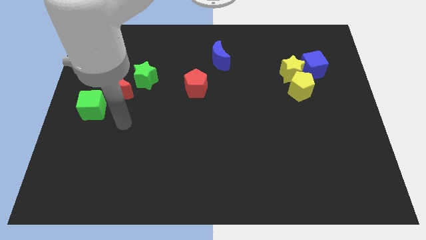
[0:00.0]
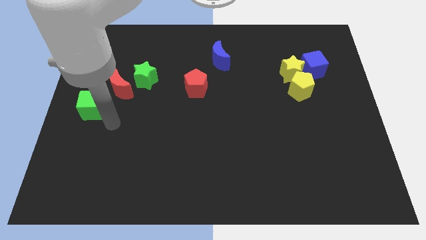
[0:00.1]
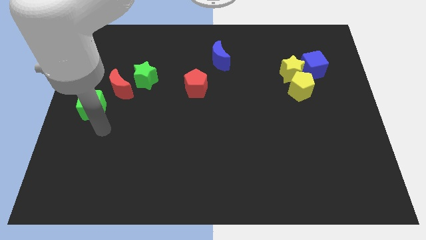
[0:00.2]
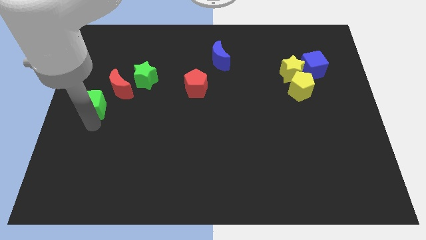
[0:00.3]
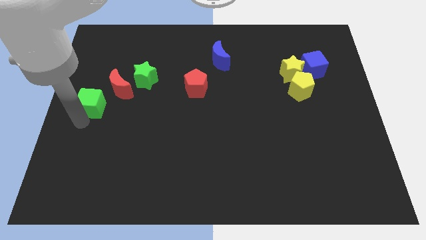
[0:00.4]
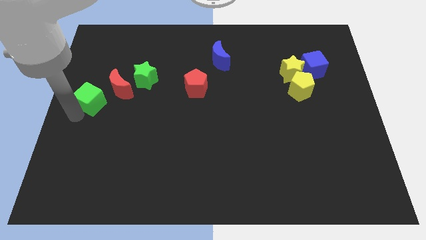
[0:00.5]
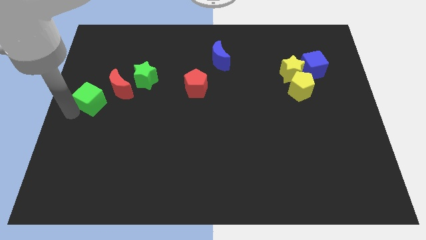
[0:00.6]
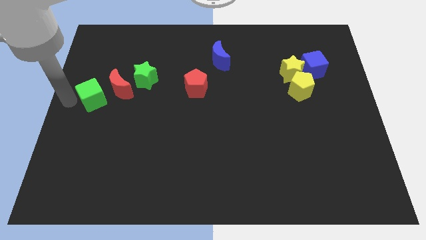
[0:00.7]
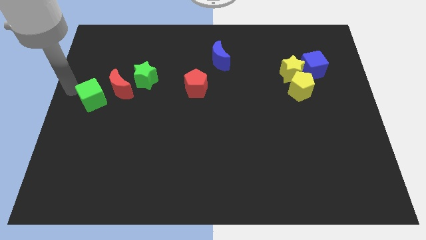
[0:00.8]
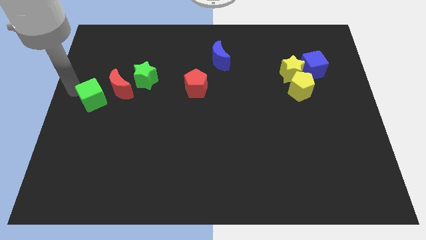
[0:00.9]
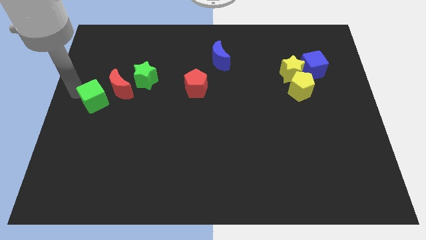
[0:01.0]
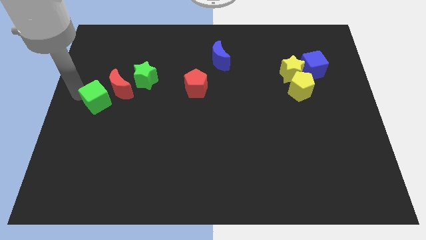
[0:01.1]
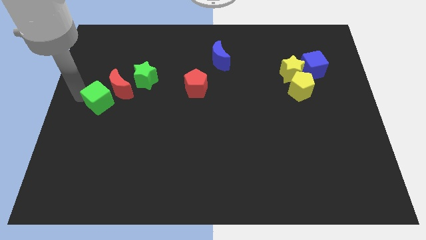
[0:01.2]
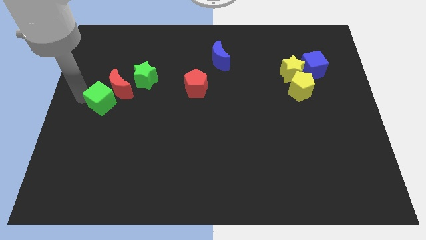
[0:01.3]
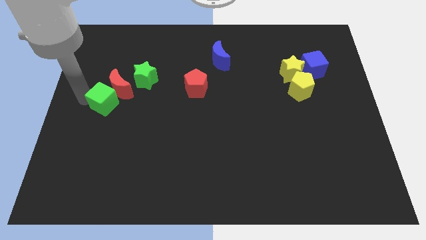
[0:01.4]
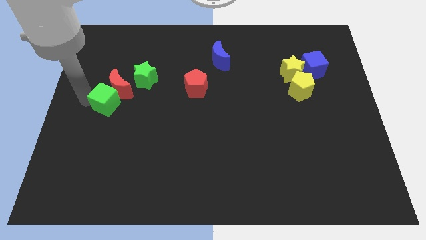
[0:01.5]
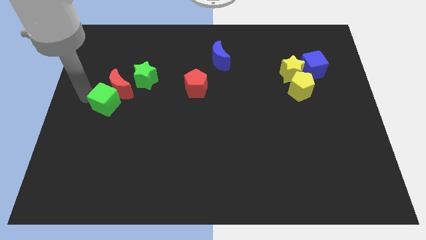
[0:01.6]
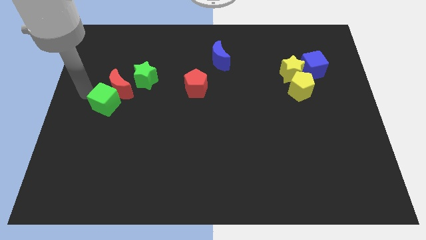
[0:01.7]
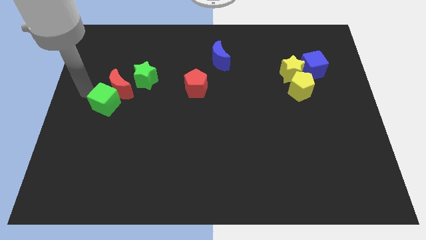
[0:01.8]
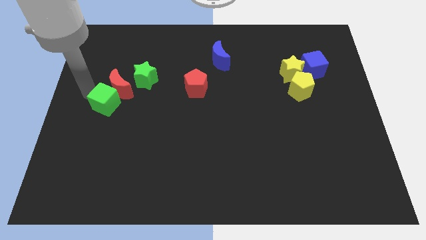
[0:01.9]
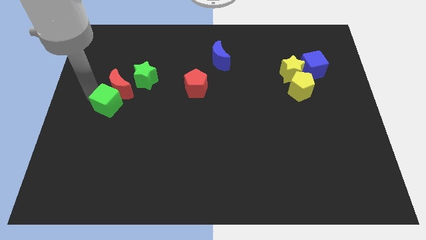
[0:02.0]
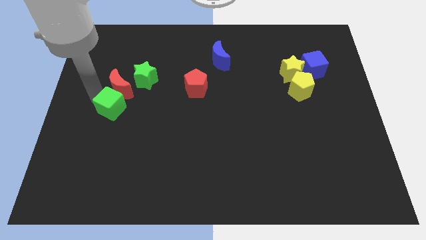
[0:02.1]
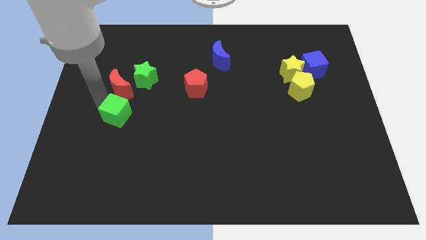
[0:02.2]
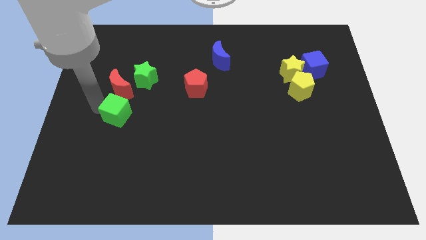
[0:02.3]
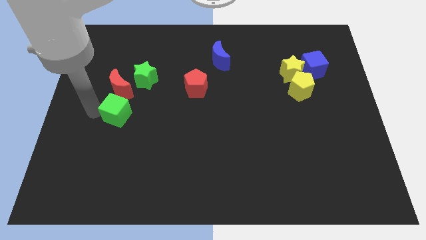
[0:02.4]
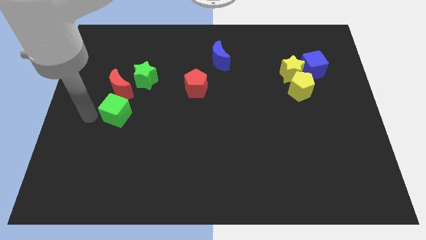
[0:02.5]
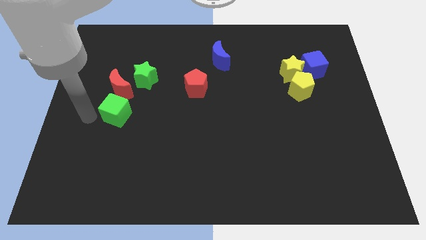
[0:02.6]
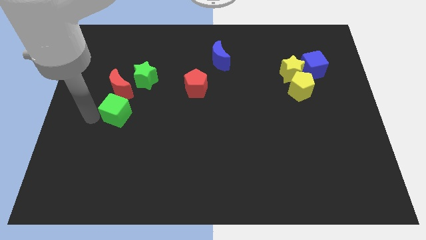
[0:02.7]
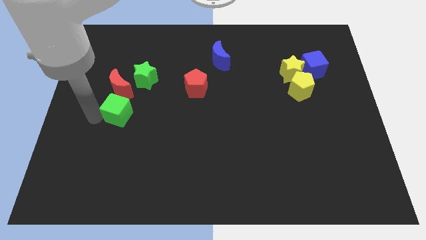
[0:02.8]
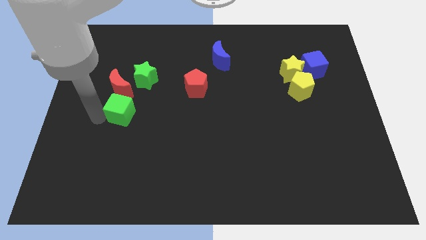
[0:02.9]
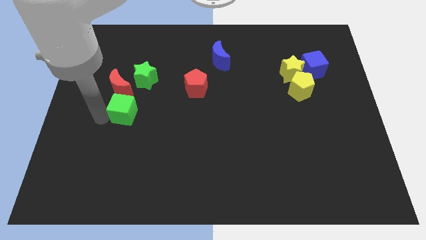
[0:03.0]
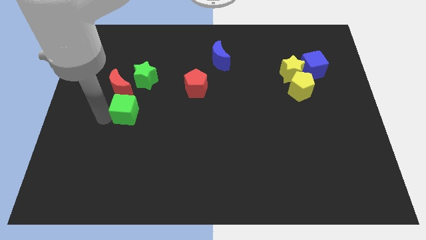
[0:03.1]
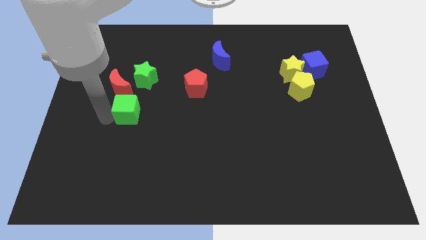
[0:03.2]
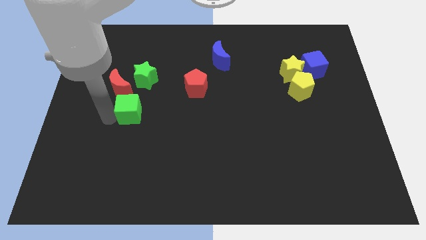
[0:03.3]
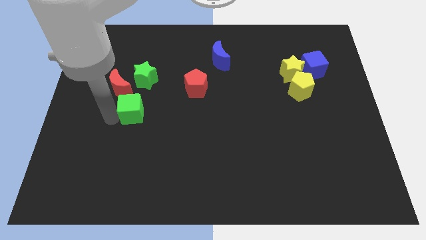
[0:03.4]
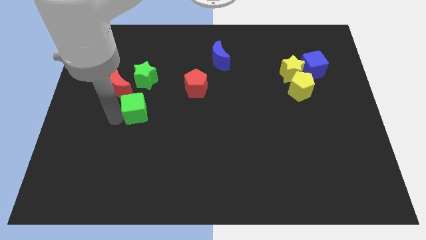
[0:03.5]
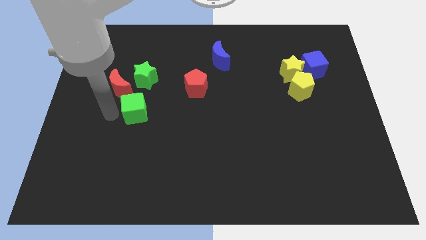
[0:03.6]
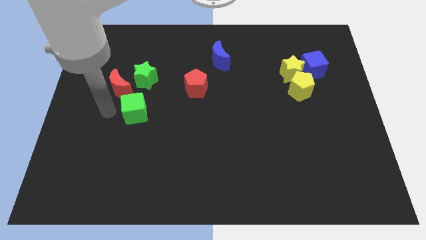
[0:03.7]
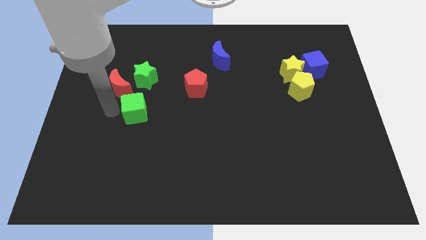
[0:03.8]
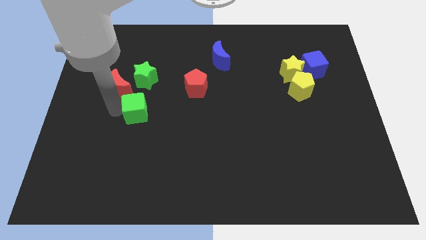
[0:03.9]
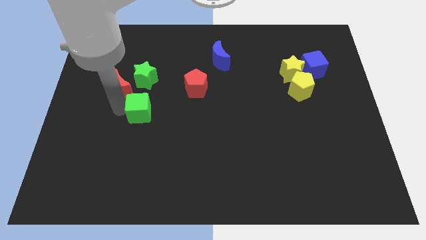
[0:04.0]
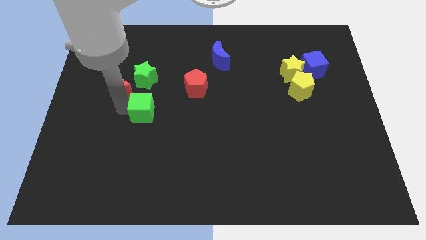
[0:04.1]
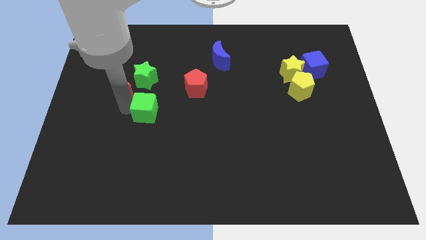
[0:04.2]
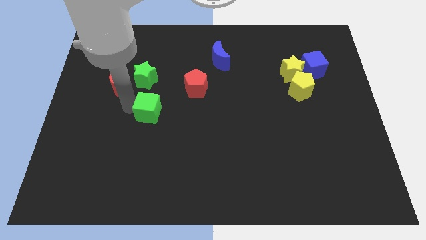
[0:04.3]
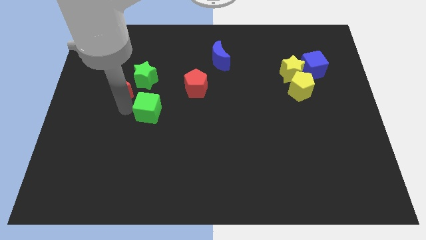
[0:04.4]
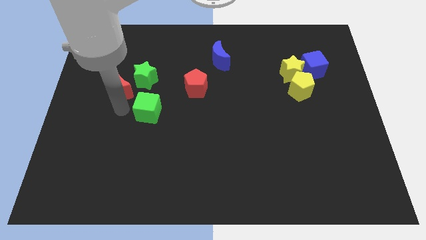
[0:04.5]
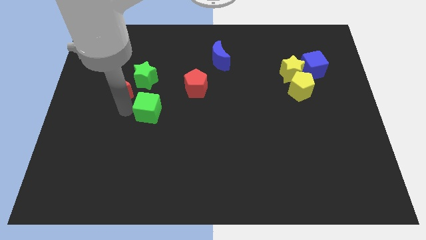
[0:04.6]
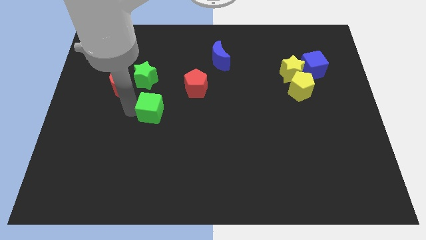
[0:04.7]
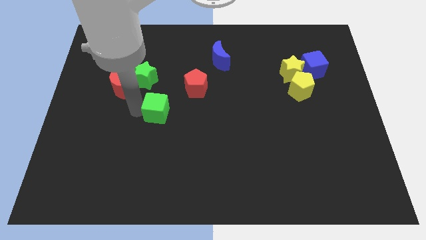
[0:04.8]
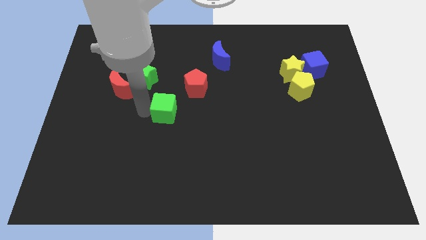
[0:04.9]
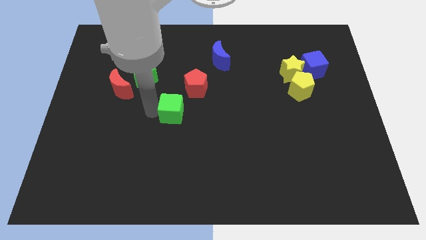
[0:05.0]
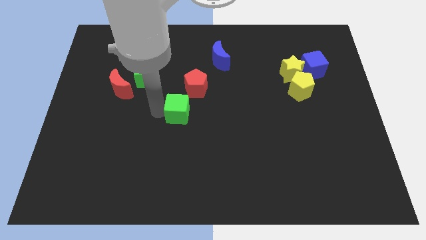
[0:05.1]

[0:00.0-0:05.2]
slide the green cube to the right

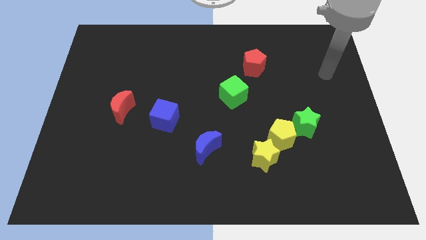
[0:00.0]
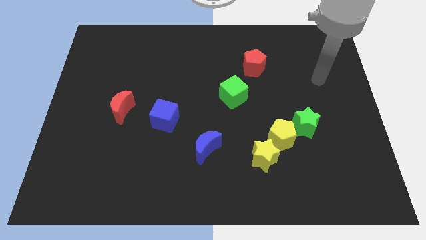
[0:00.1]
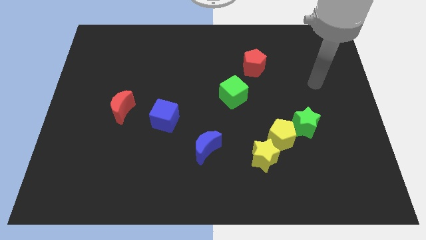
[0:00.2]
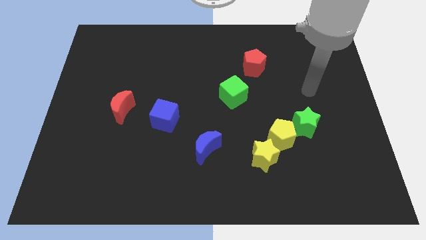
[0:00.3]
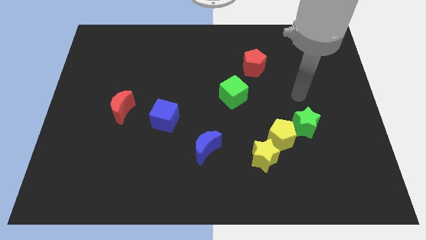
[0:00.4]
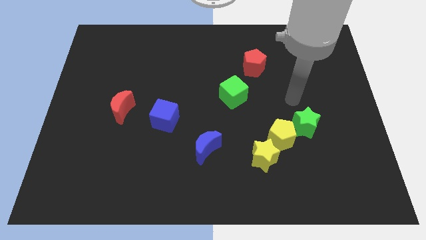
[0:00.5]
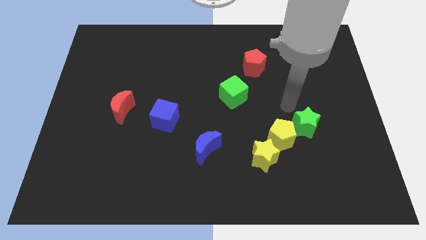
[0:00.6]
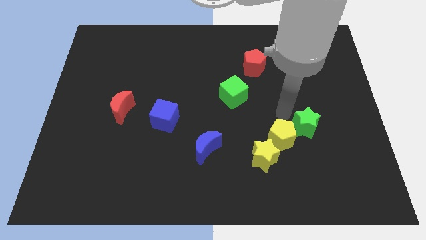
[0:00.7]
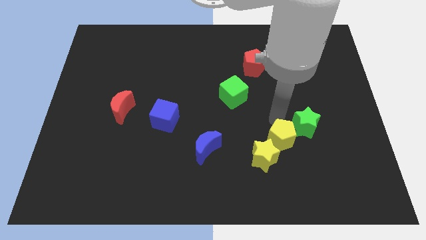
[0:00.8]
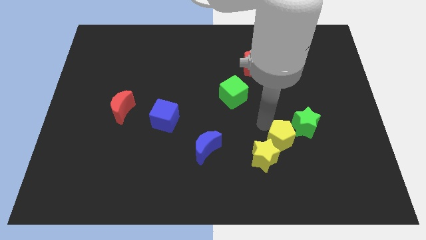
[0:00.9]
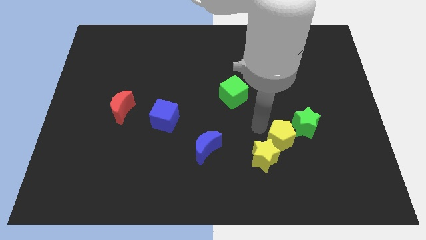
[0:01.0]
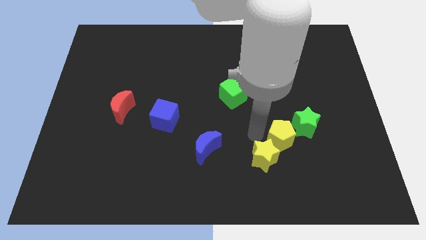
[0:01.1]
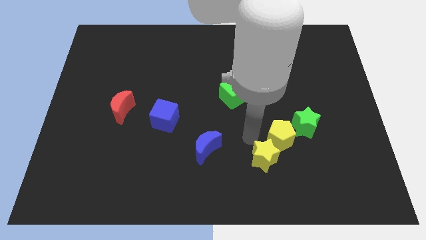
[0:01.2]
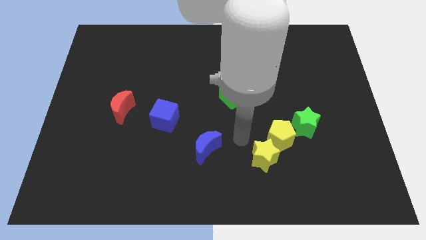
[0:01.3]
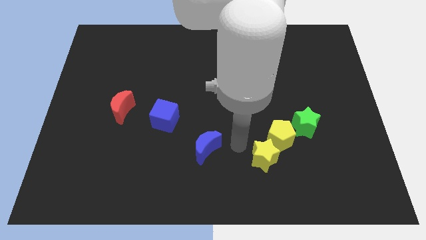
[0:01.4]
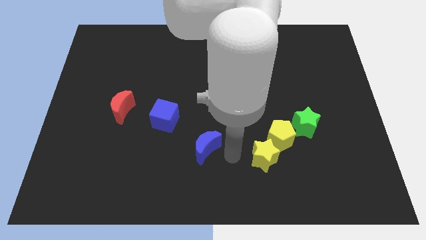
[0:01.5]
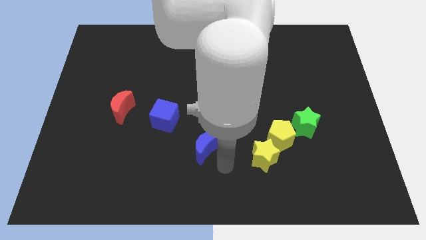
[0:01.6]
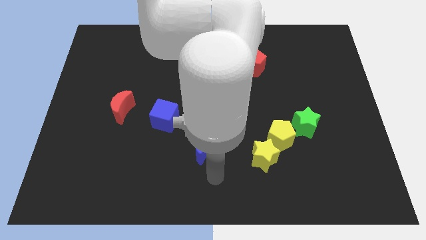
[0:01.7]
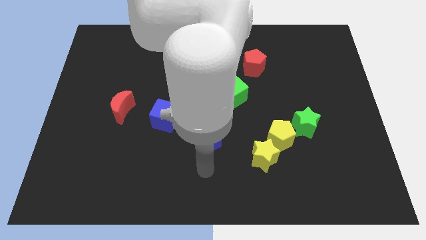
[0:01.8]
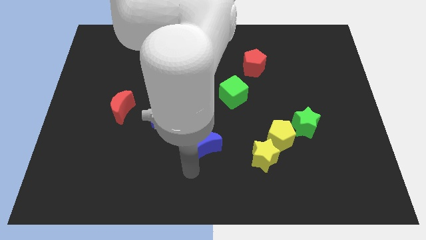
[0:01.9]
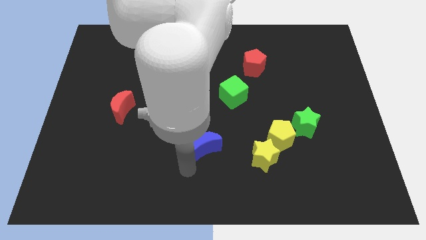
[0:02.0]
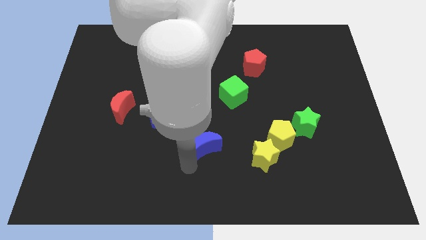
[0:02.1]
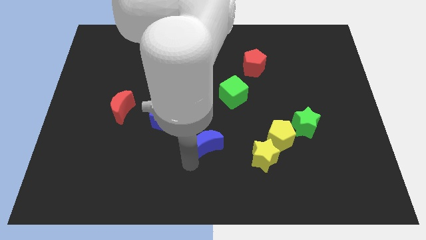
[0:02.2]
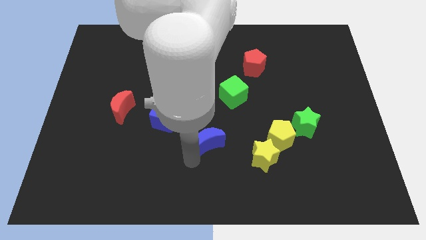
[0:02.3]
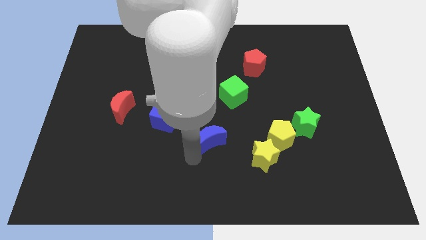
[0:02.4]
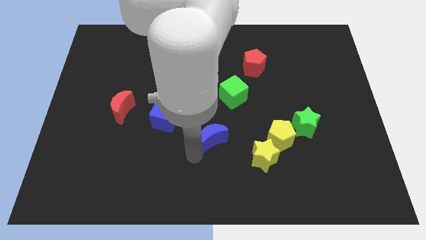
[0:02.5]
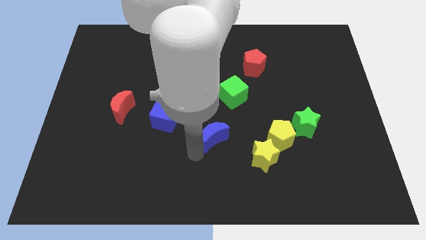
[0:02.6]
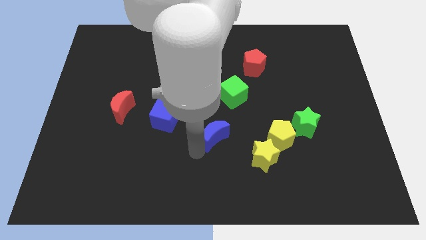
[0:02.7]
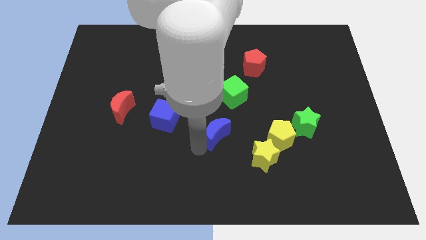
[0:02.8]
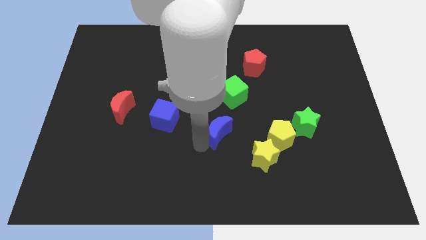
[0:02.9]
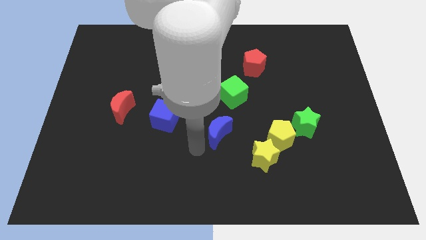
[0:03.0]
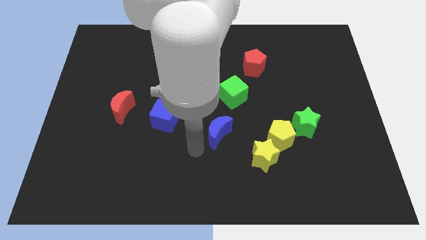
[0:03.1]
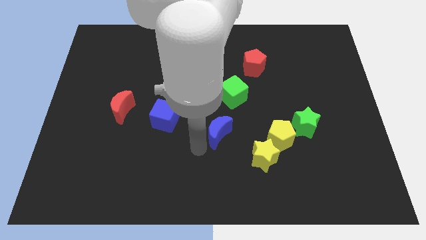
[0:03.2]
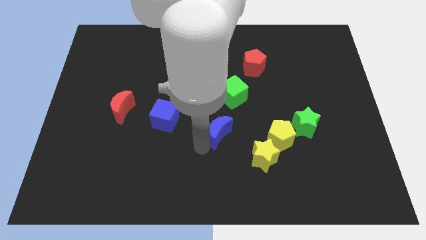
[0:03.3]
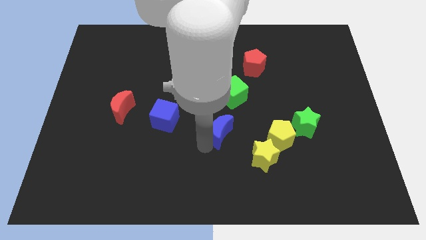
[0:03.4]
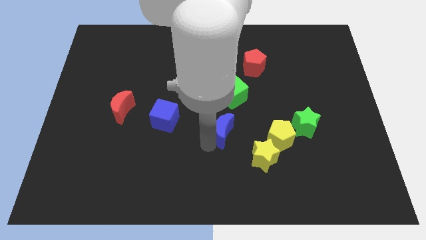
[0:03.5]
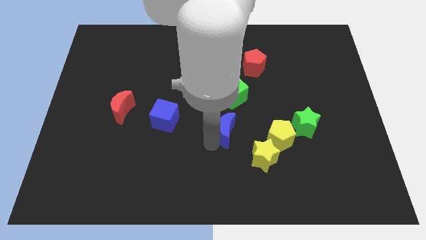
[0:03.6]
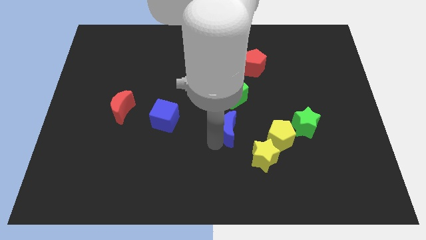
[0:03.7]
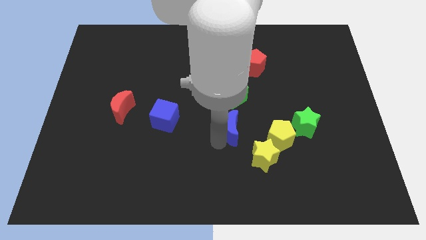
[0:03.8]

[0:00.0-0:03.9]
slightly push the blue moon up and right
